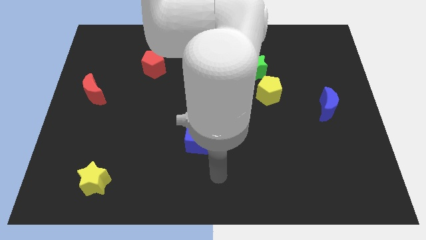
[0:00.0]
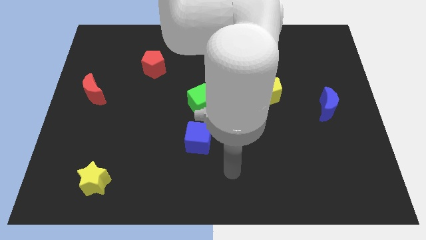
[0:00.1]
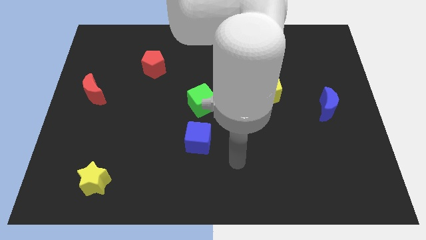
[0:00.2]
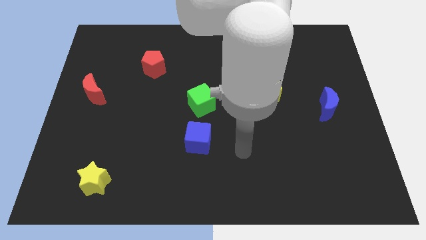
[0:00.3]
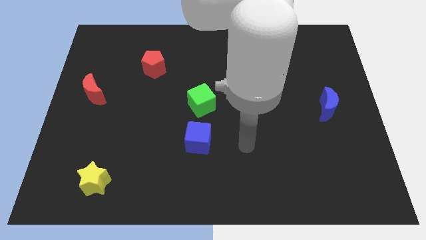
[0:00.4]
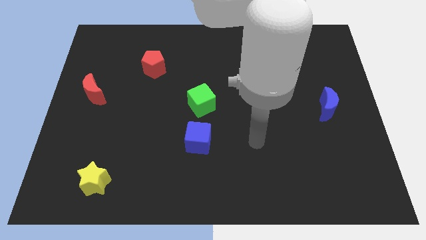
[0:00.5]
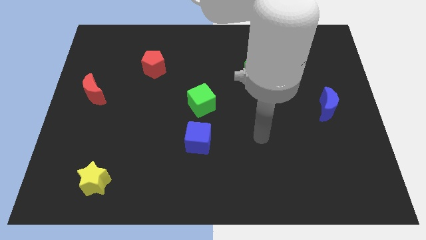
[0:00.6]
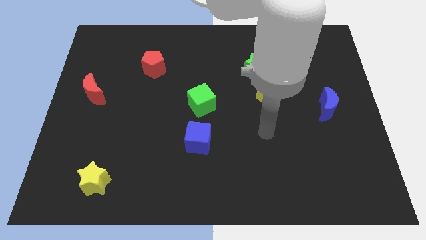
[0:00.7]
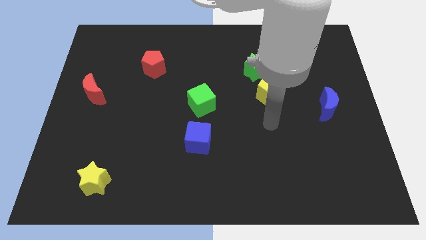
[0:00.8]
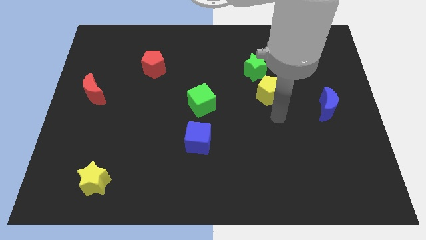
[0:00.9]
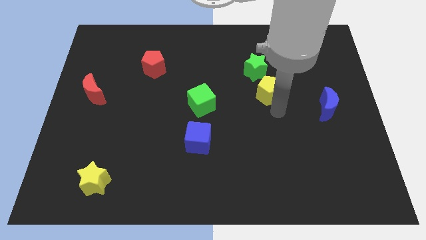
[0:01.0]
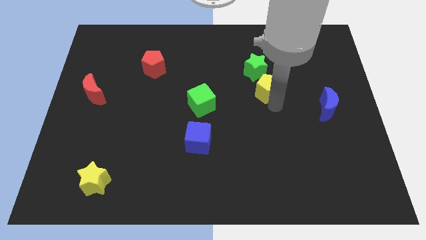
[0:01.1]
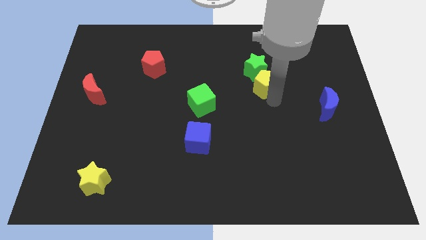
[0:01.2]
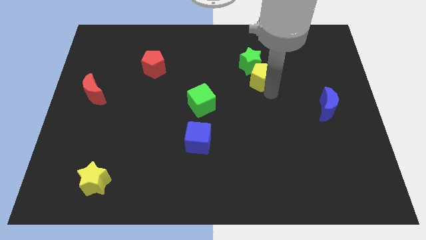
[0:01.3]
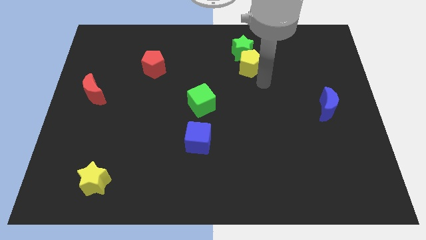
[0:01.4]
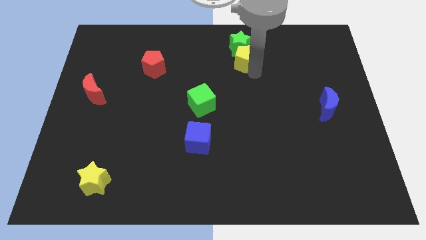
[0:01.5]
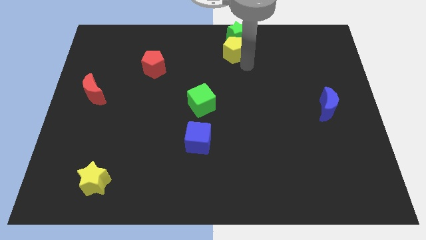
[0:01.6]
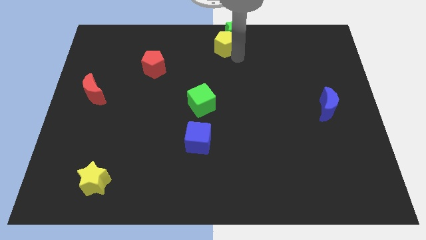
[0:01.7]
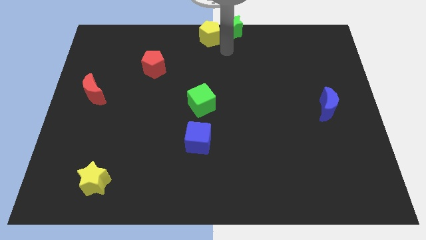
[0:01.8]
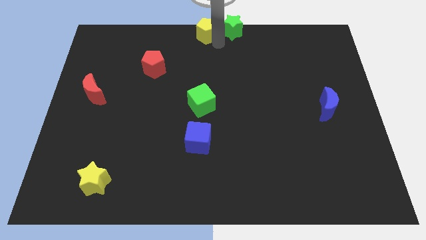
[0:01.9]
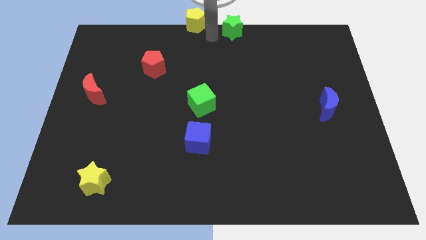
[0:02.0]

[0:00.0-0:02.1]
separate the green star from the yellow pentagon

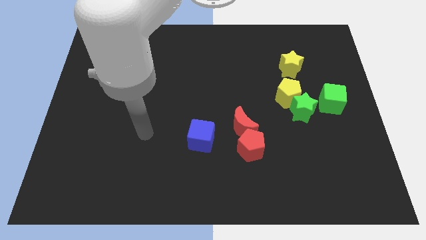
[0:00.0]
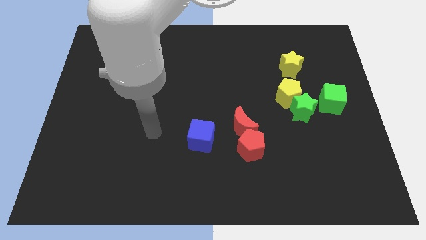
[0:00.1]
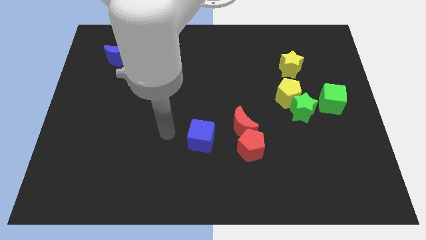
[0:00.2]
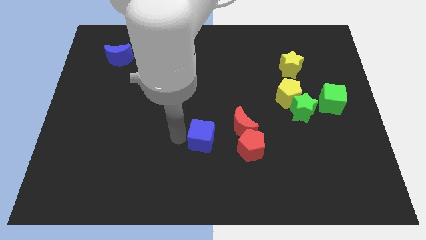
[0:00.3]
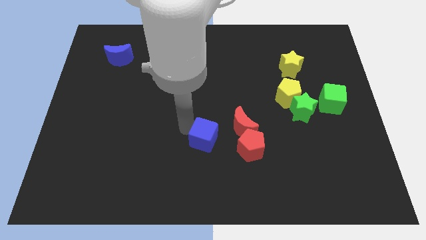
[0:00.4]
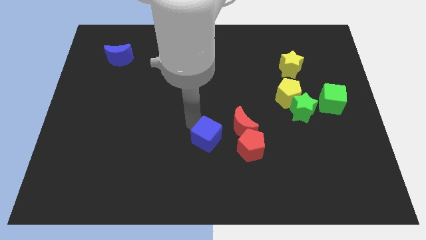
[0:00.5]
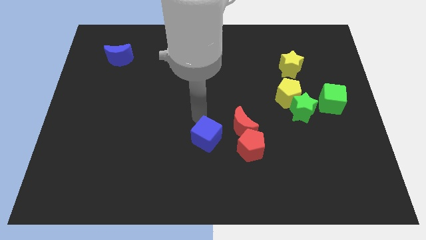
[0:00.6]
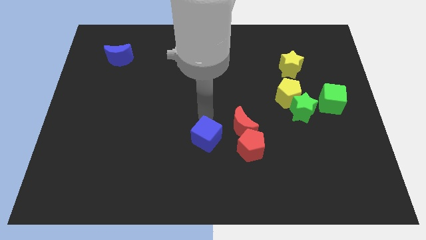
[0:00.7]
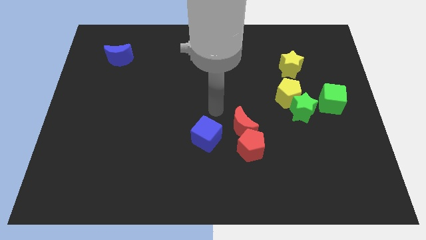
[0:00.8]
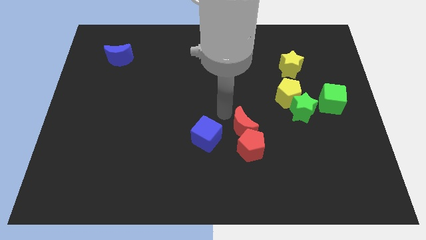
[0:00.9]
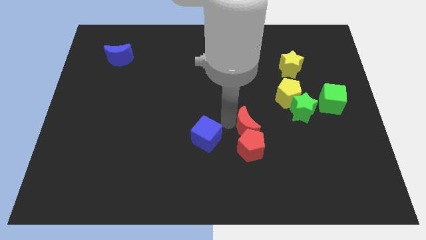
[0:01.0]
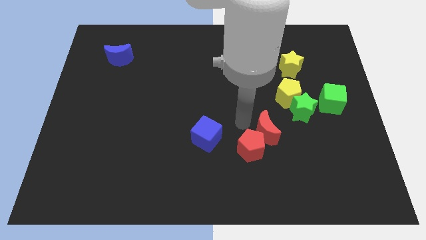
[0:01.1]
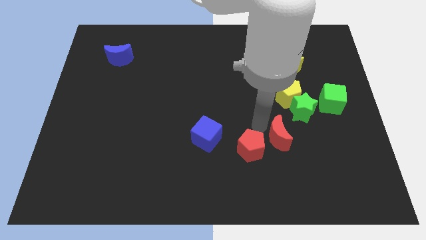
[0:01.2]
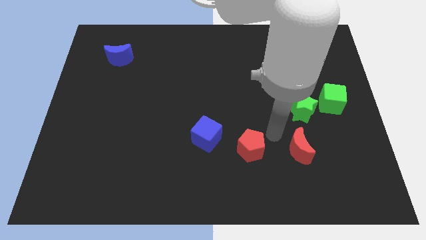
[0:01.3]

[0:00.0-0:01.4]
pull the red pentagon apart from the red moon

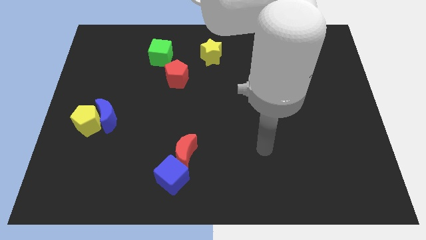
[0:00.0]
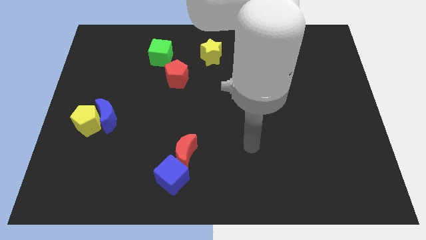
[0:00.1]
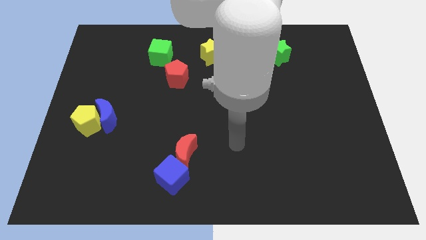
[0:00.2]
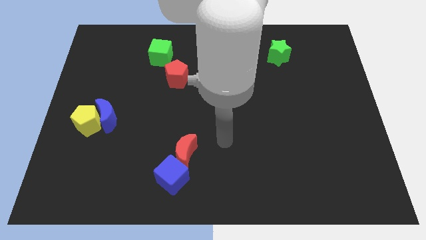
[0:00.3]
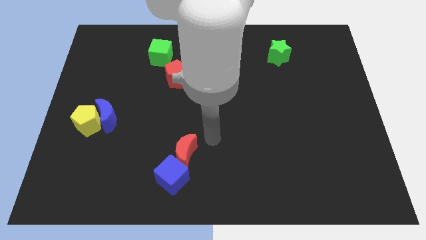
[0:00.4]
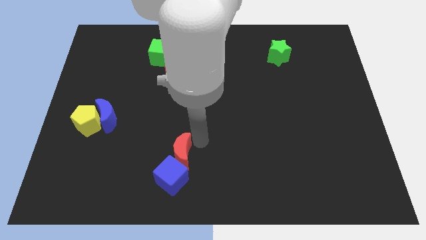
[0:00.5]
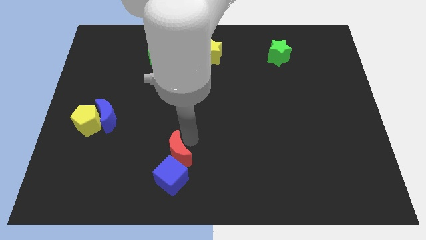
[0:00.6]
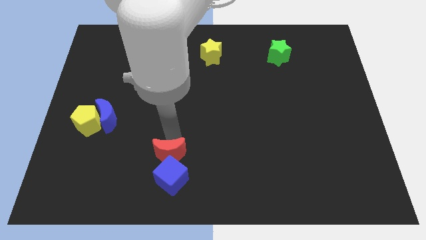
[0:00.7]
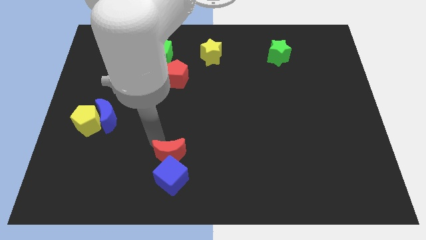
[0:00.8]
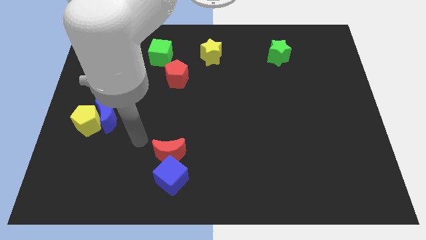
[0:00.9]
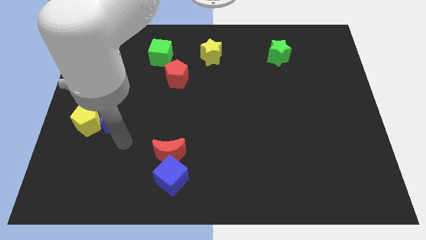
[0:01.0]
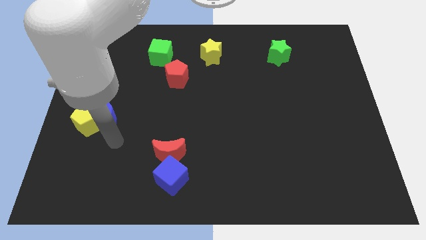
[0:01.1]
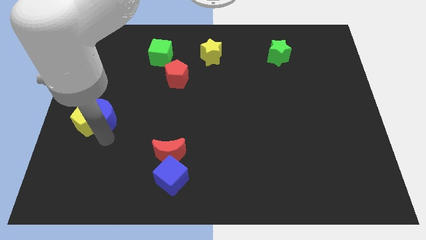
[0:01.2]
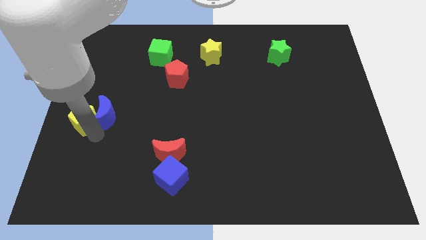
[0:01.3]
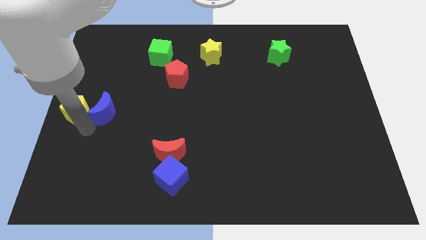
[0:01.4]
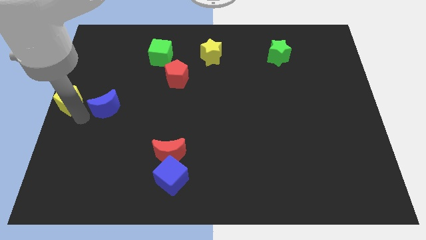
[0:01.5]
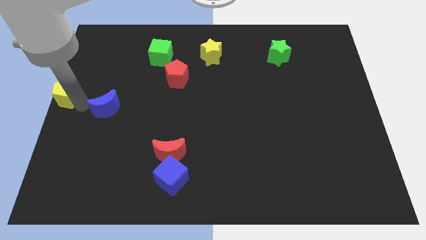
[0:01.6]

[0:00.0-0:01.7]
separate the blue moon from the yellow pentagon

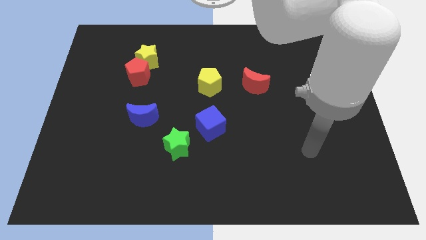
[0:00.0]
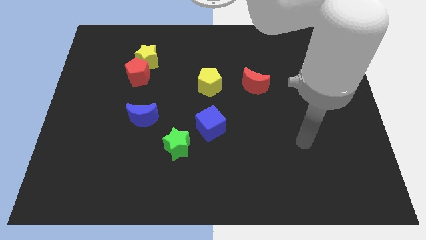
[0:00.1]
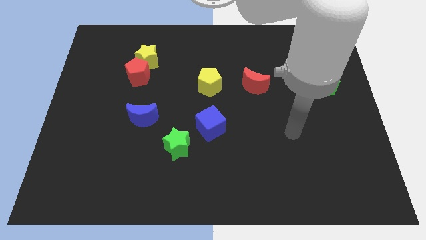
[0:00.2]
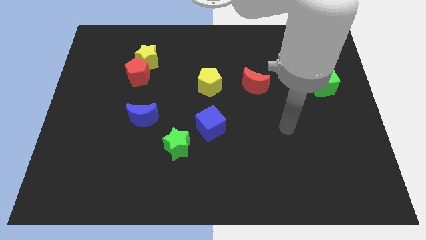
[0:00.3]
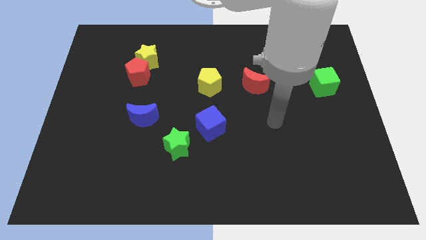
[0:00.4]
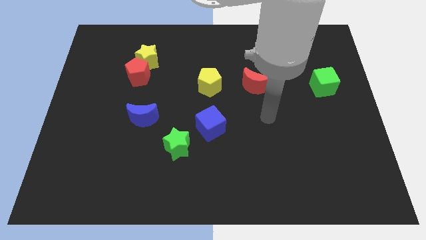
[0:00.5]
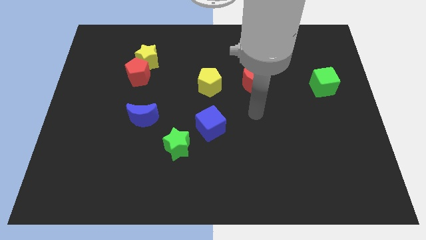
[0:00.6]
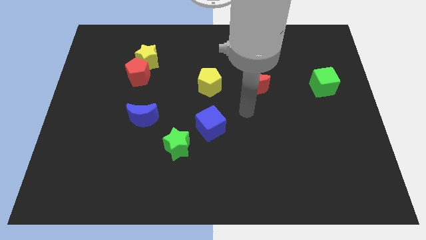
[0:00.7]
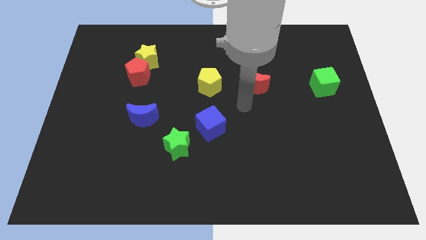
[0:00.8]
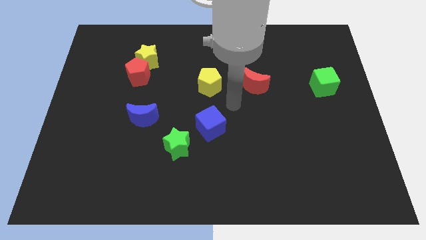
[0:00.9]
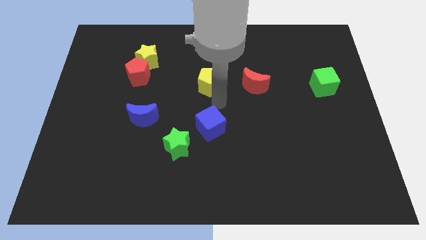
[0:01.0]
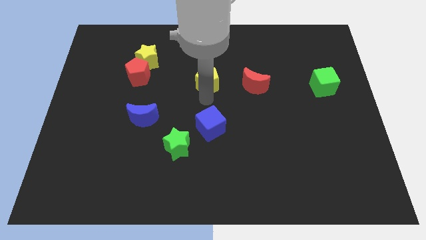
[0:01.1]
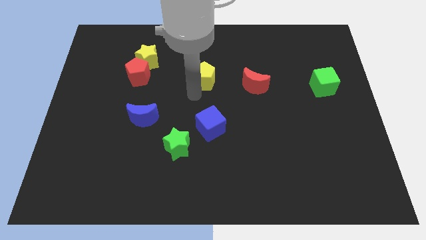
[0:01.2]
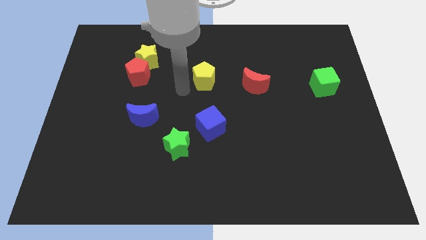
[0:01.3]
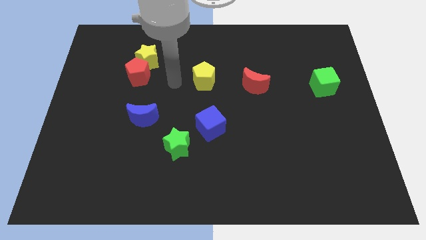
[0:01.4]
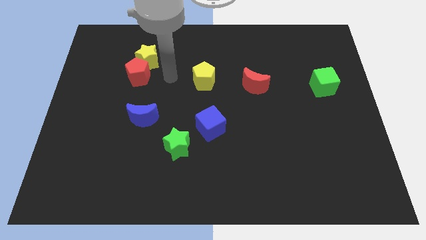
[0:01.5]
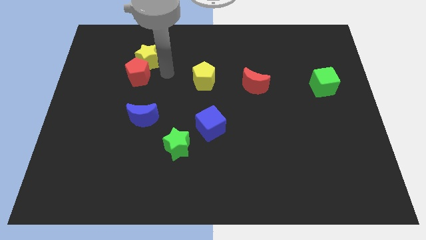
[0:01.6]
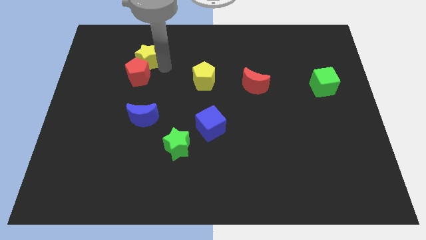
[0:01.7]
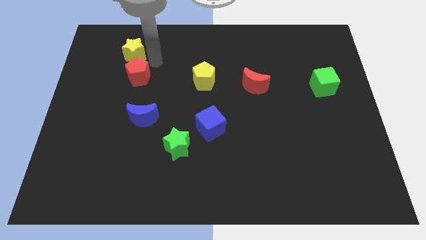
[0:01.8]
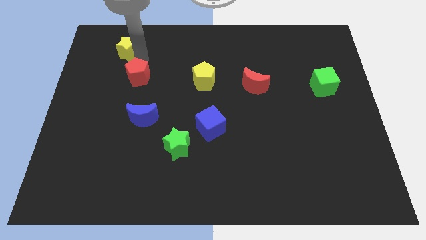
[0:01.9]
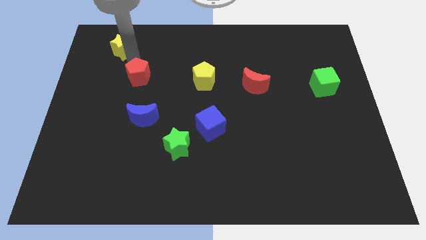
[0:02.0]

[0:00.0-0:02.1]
move the red pentagon away from the yellow star

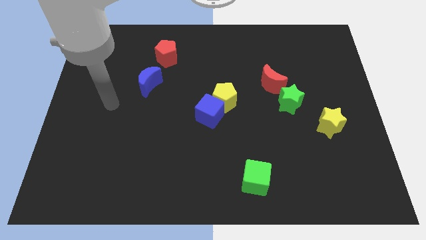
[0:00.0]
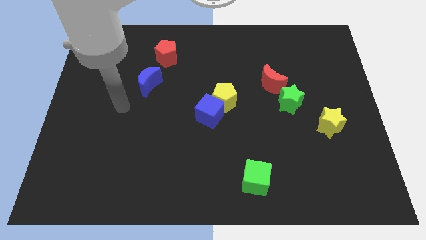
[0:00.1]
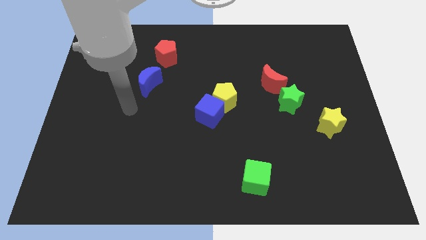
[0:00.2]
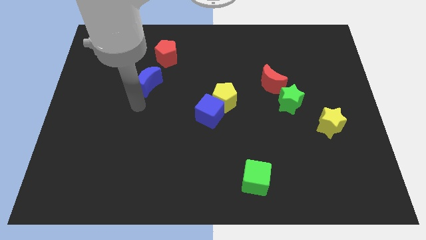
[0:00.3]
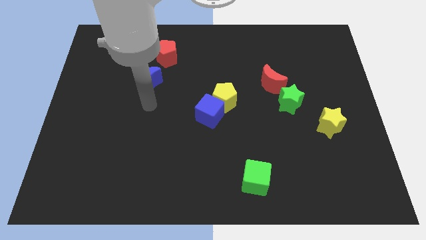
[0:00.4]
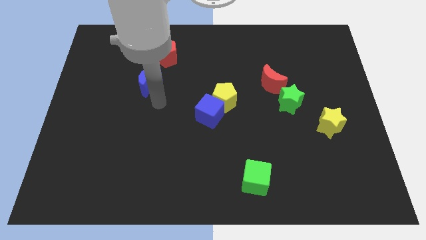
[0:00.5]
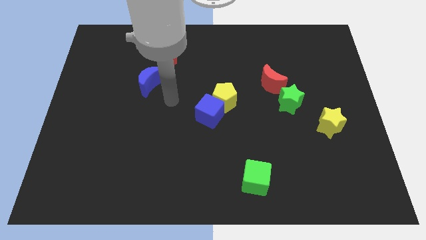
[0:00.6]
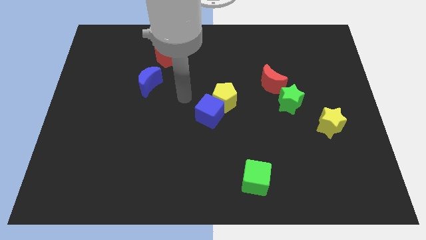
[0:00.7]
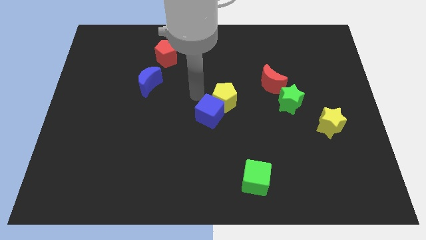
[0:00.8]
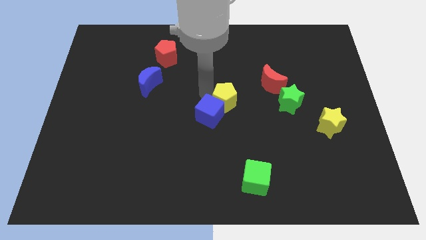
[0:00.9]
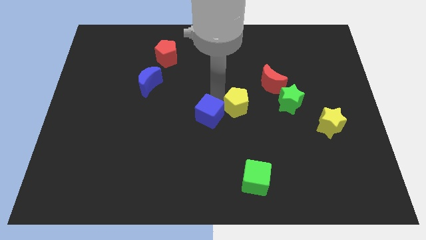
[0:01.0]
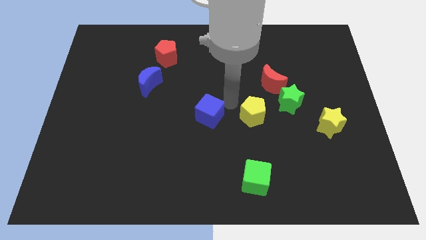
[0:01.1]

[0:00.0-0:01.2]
separate the blue cube from the yellow pentagon

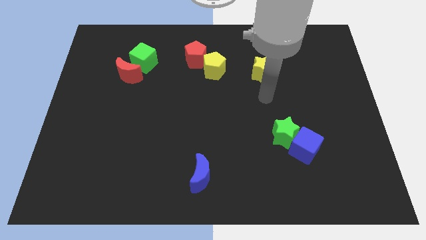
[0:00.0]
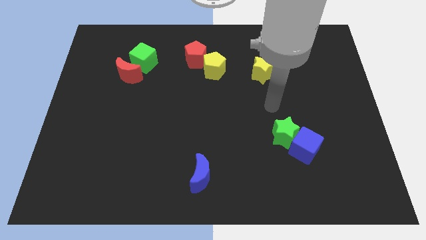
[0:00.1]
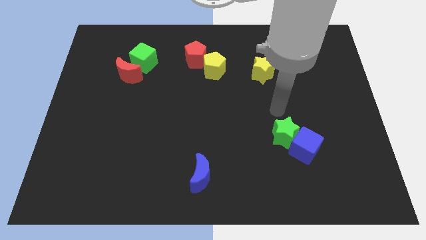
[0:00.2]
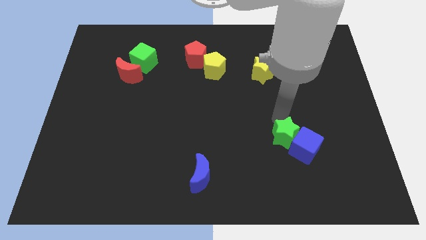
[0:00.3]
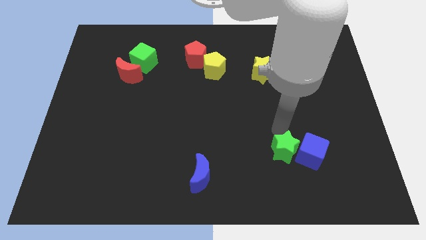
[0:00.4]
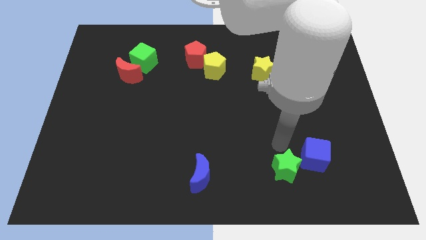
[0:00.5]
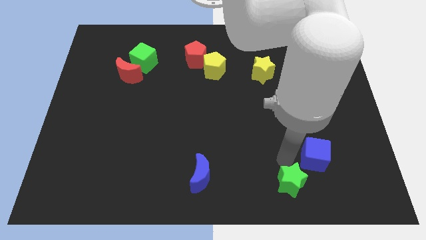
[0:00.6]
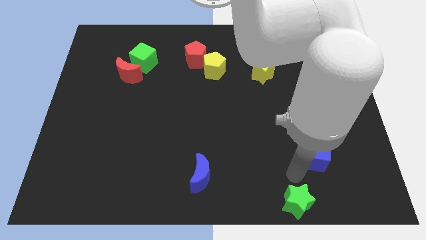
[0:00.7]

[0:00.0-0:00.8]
move the blue cube away from the green star

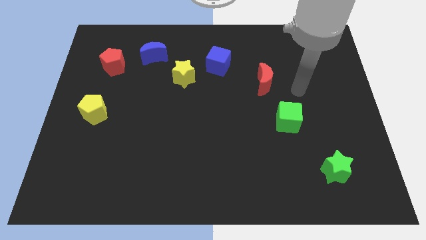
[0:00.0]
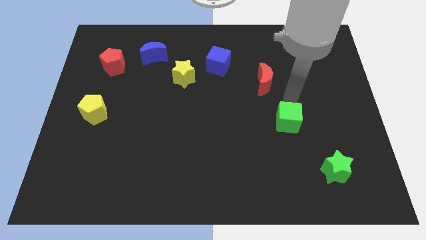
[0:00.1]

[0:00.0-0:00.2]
separate the blue cube from the yellow star
